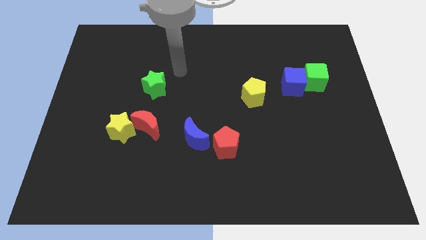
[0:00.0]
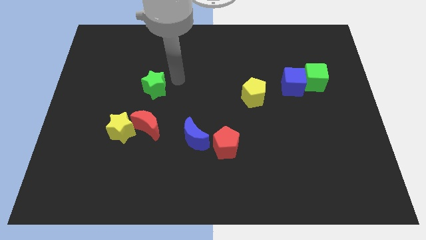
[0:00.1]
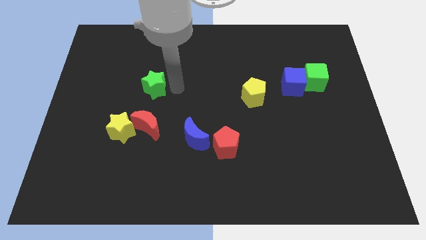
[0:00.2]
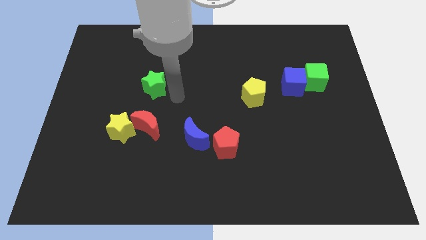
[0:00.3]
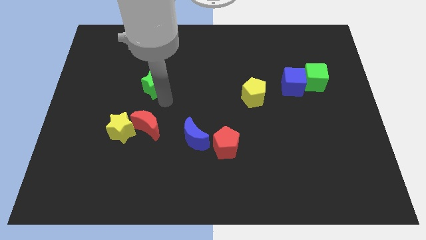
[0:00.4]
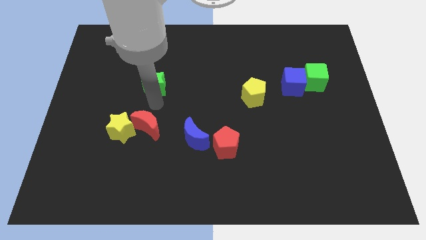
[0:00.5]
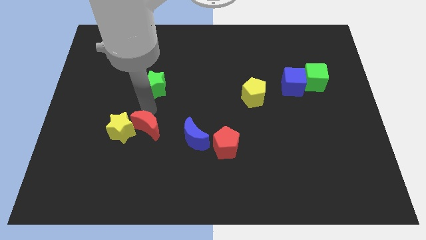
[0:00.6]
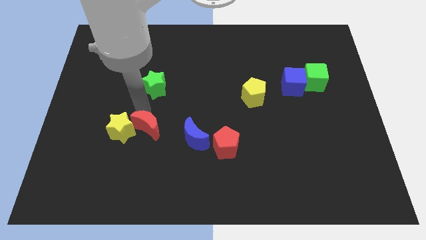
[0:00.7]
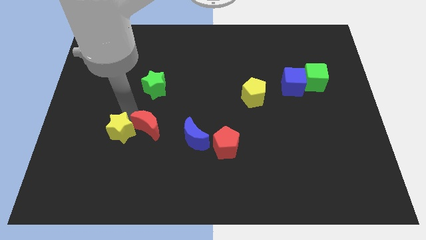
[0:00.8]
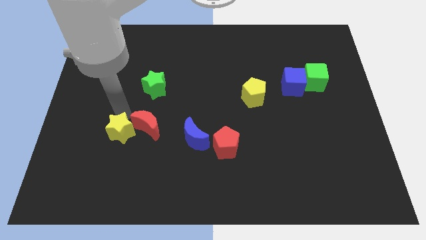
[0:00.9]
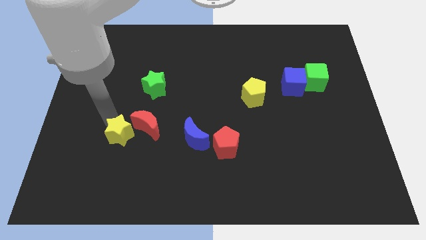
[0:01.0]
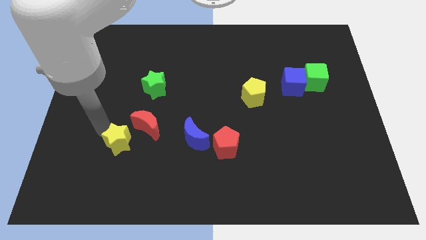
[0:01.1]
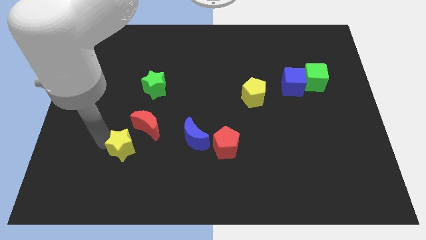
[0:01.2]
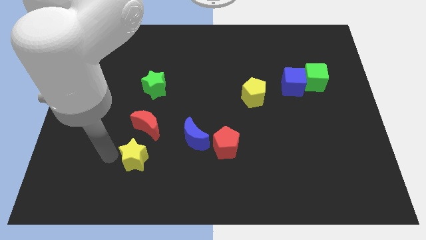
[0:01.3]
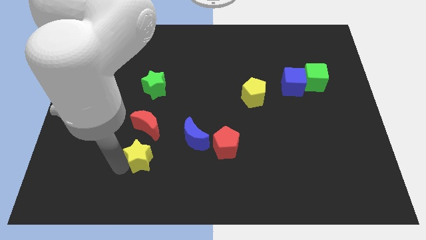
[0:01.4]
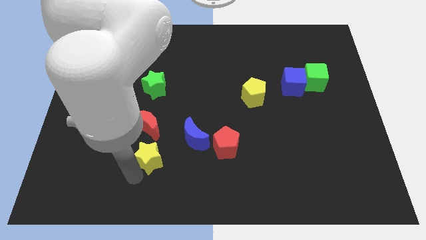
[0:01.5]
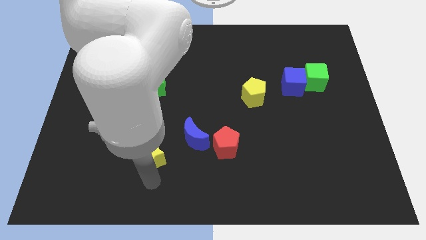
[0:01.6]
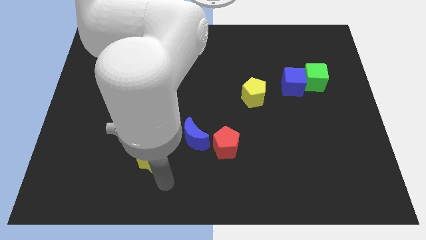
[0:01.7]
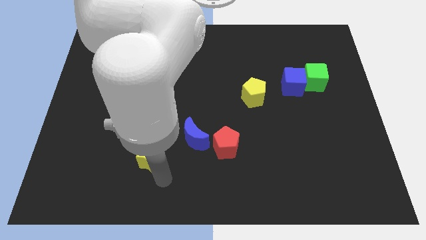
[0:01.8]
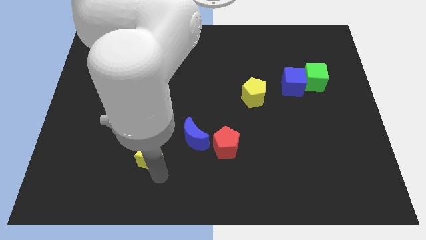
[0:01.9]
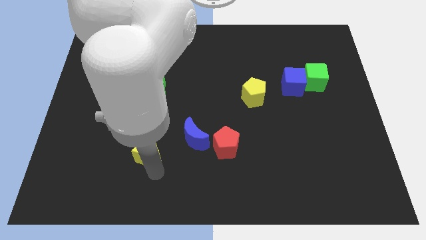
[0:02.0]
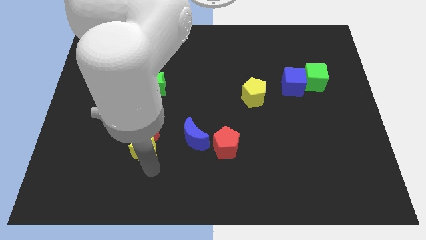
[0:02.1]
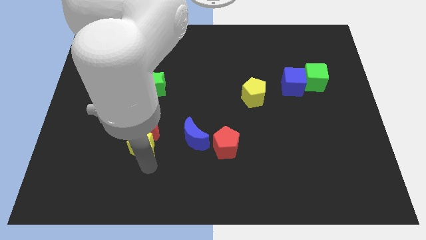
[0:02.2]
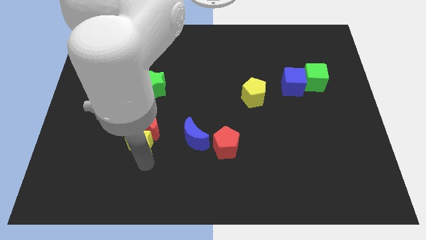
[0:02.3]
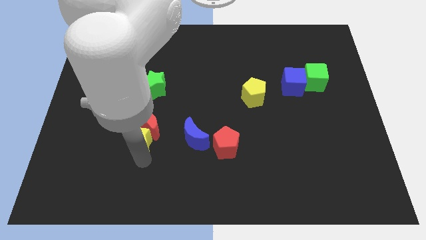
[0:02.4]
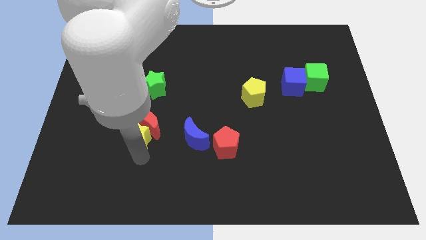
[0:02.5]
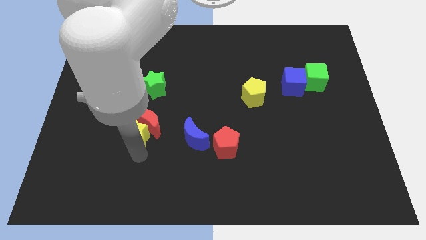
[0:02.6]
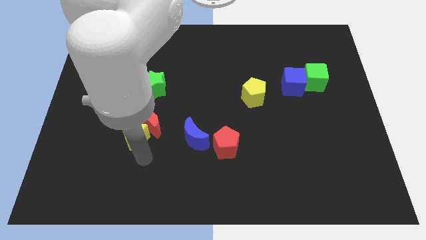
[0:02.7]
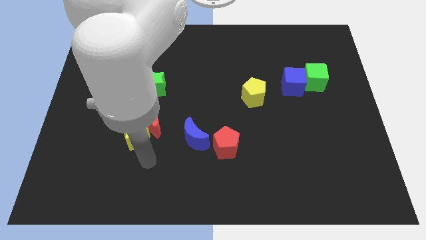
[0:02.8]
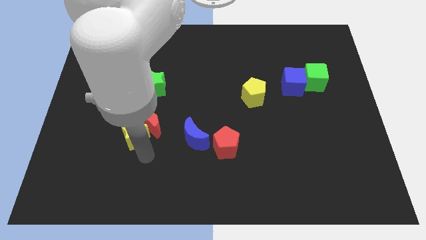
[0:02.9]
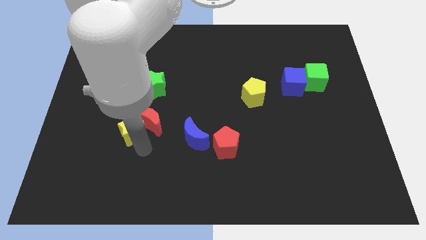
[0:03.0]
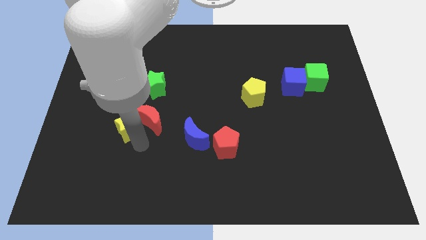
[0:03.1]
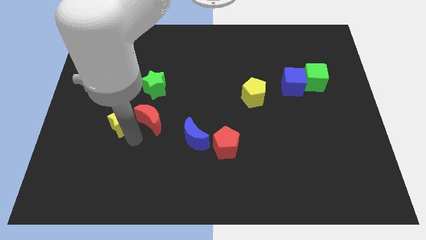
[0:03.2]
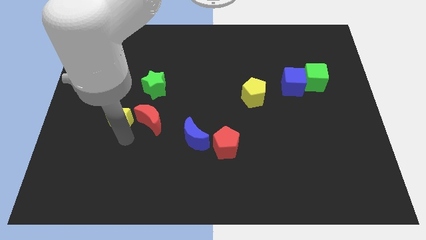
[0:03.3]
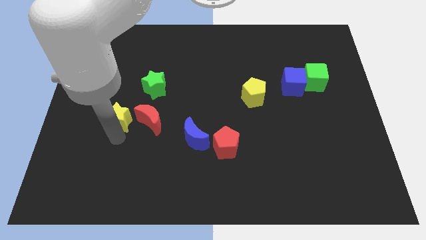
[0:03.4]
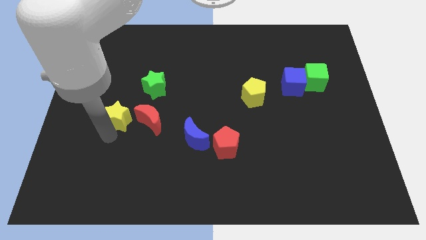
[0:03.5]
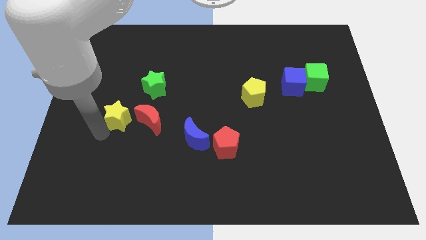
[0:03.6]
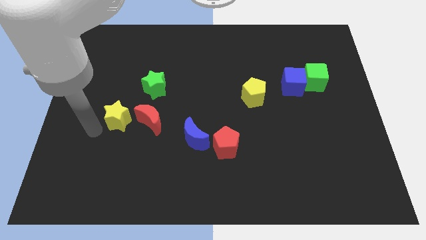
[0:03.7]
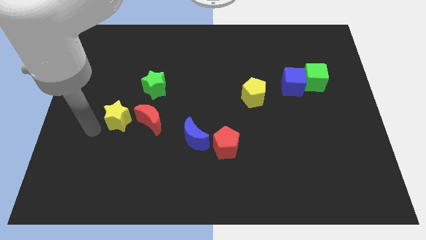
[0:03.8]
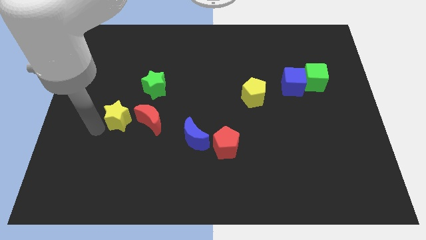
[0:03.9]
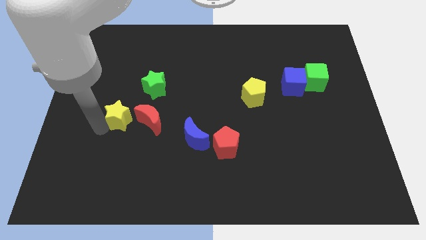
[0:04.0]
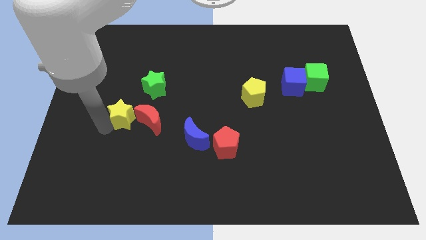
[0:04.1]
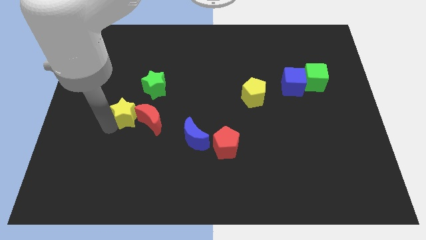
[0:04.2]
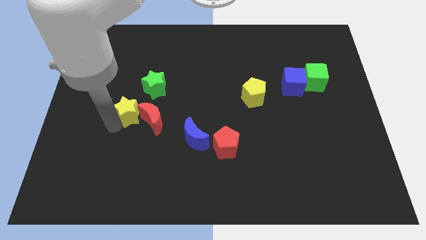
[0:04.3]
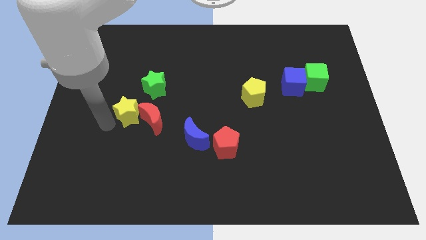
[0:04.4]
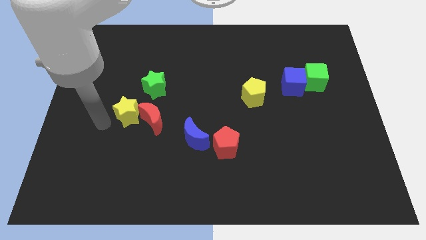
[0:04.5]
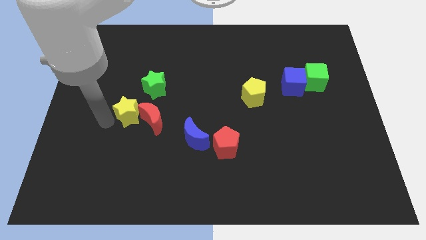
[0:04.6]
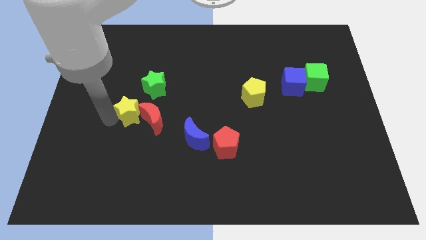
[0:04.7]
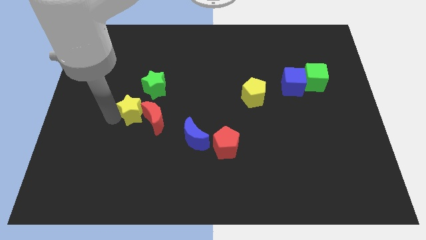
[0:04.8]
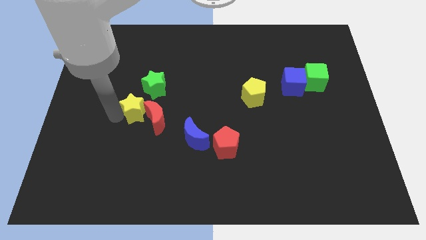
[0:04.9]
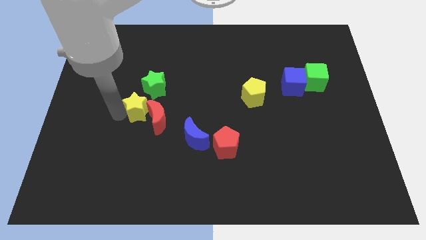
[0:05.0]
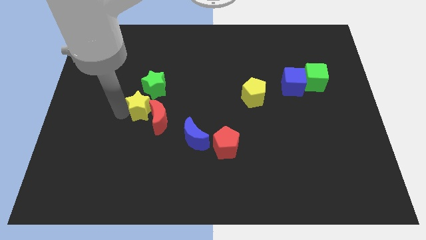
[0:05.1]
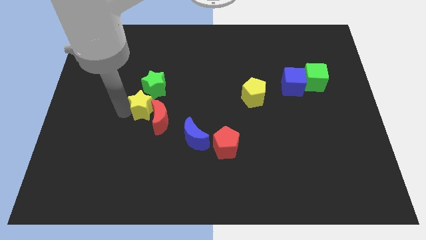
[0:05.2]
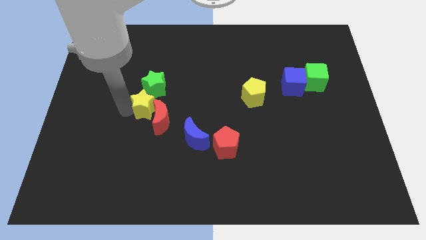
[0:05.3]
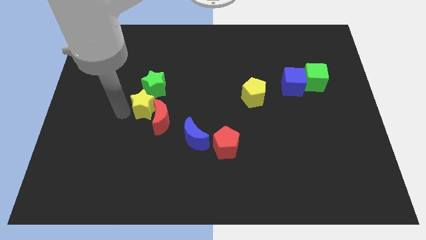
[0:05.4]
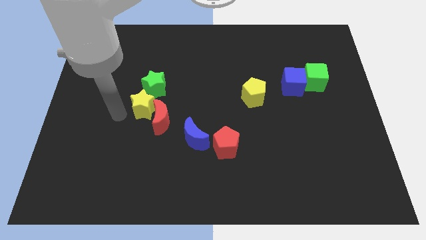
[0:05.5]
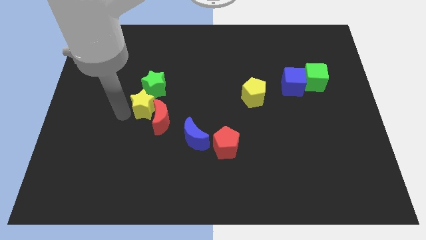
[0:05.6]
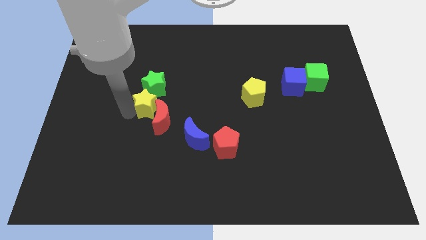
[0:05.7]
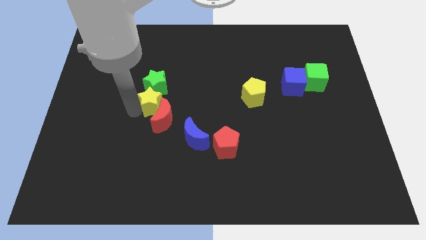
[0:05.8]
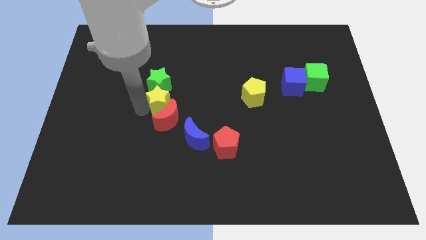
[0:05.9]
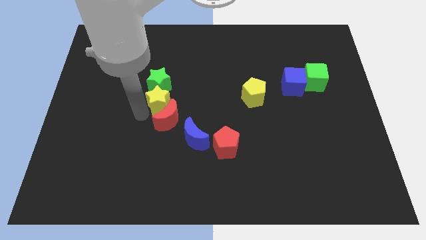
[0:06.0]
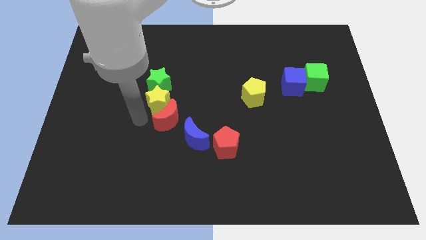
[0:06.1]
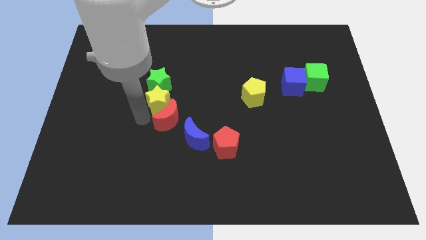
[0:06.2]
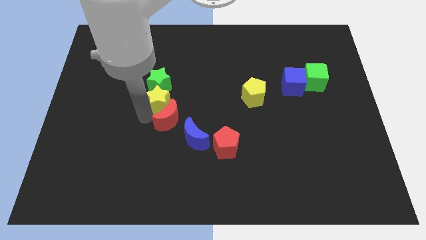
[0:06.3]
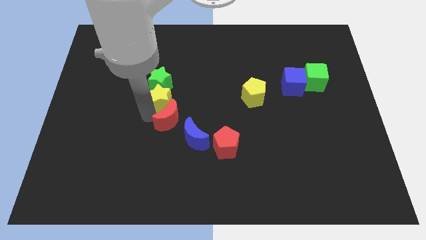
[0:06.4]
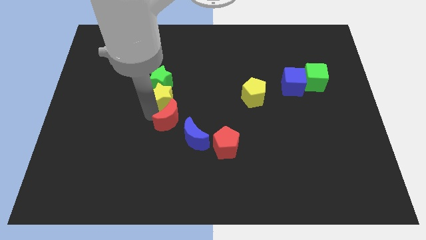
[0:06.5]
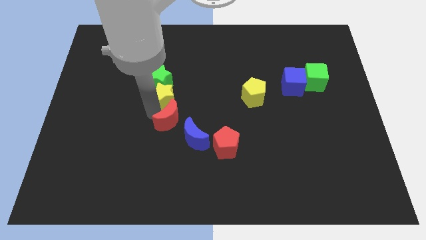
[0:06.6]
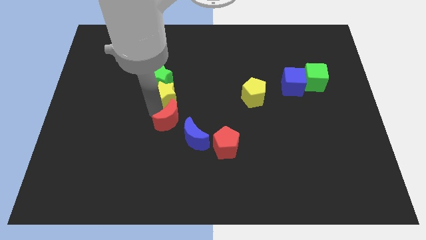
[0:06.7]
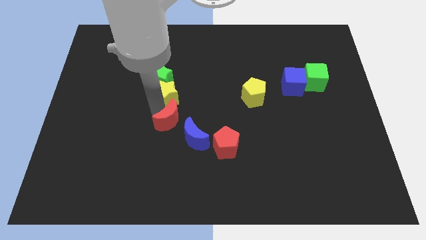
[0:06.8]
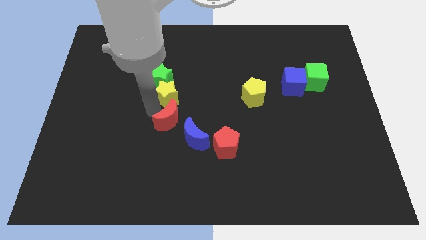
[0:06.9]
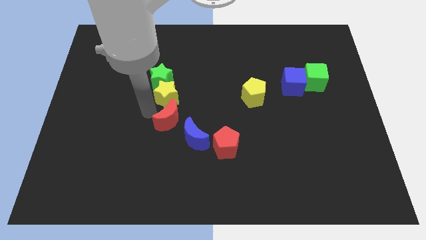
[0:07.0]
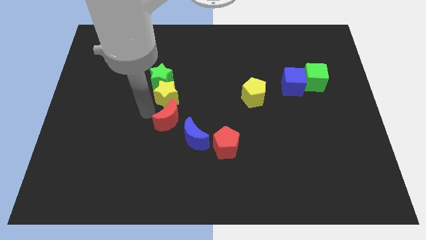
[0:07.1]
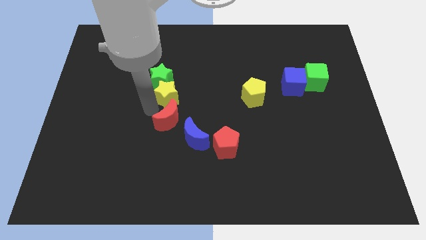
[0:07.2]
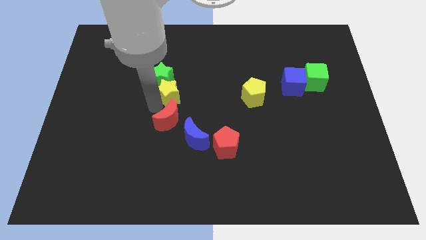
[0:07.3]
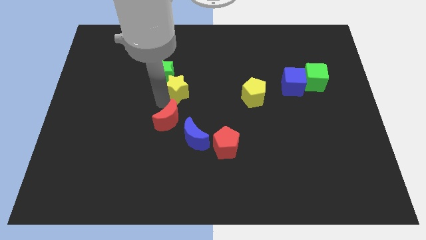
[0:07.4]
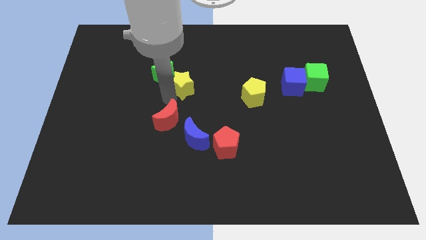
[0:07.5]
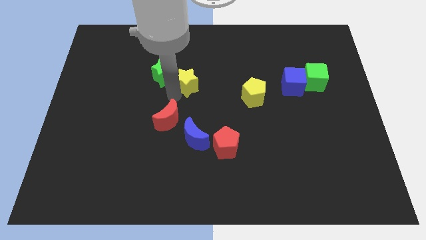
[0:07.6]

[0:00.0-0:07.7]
slide the yellow star up and right

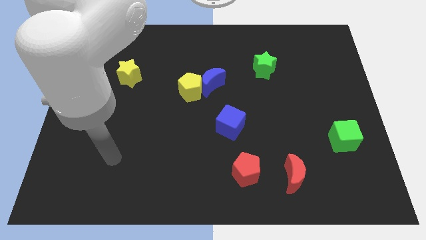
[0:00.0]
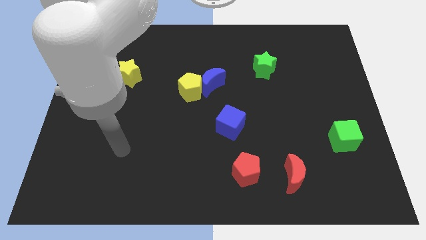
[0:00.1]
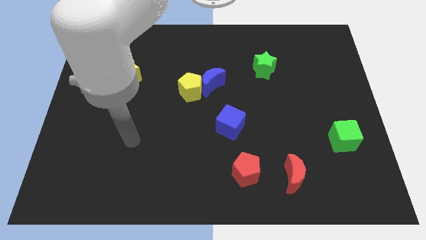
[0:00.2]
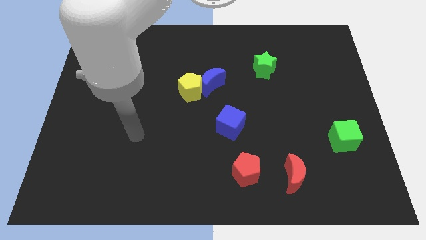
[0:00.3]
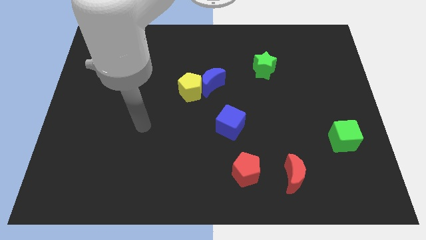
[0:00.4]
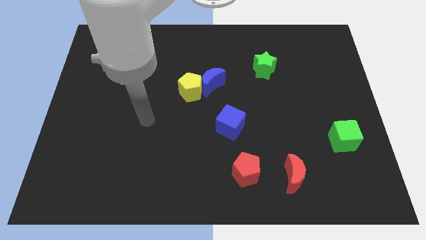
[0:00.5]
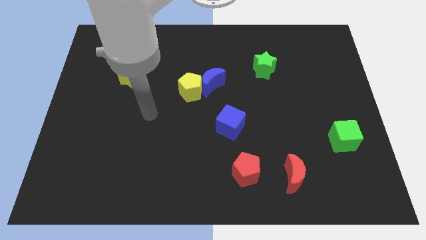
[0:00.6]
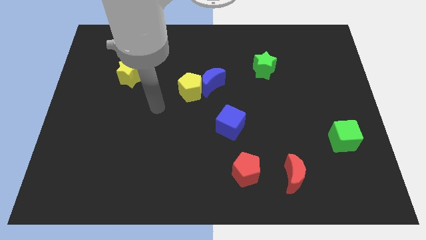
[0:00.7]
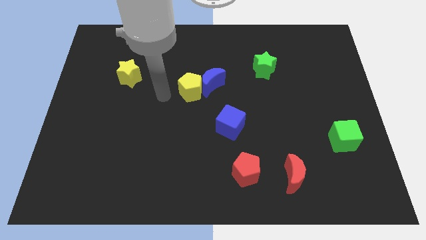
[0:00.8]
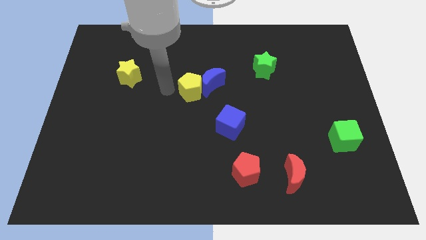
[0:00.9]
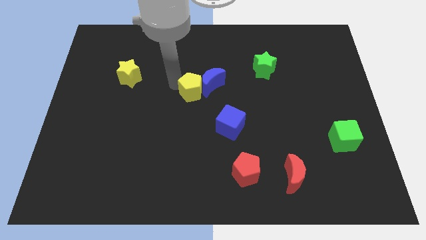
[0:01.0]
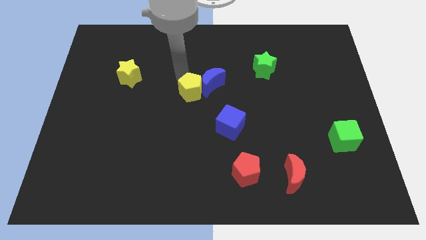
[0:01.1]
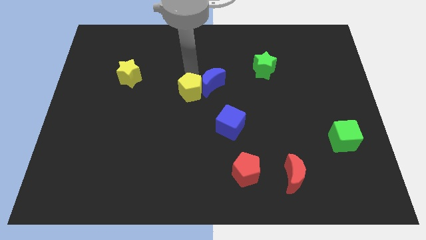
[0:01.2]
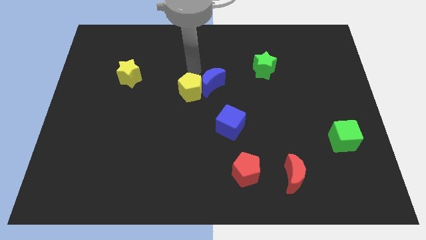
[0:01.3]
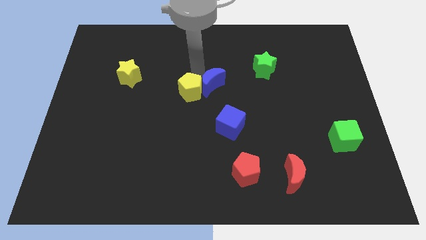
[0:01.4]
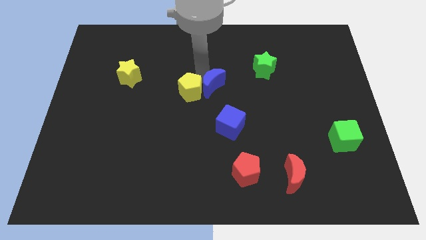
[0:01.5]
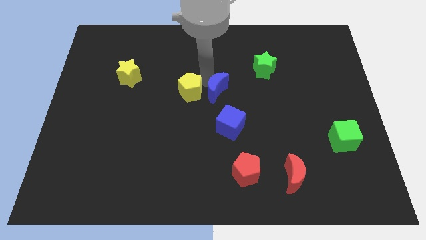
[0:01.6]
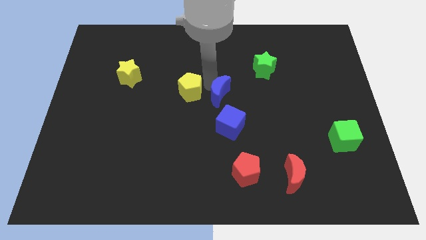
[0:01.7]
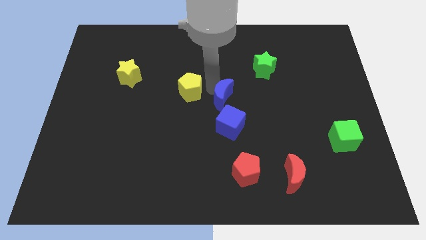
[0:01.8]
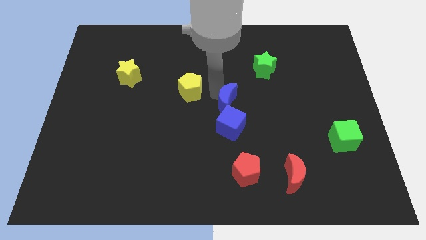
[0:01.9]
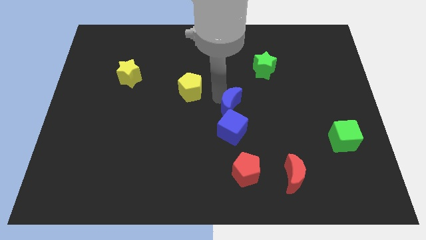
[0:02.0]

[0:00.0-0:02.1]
slightly slide the blue moon down and then right
